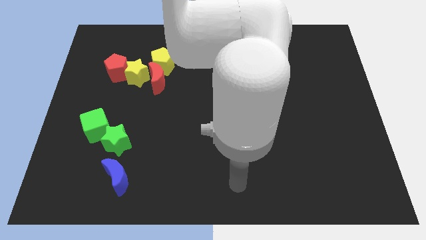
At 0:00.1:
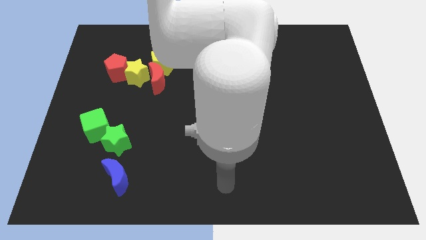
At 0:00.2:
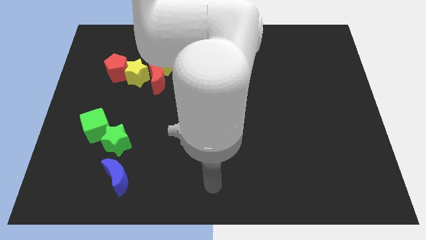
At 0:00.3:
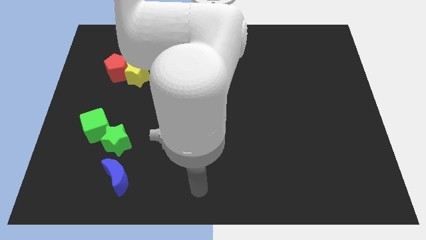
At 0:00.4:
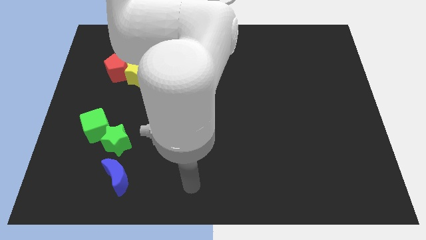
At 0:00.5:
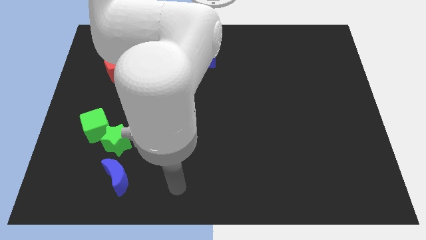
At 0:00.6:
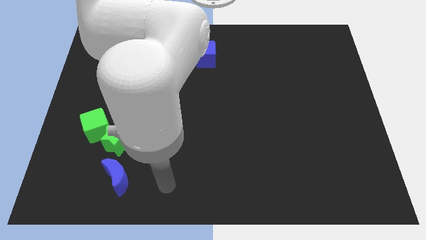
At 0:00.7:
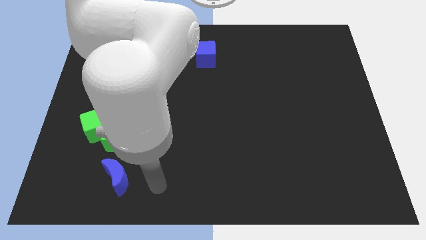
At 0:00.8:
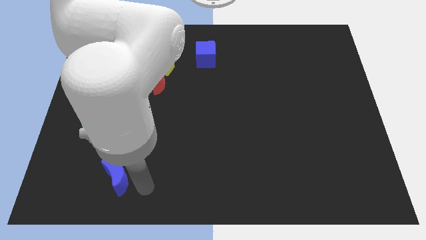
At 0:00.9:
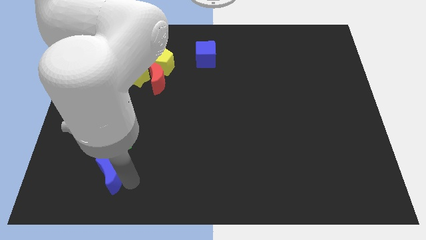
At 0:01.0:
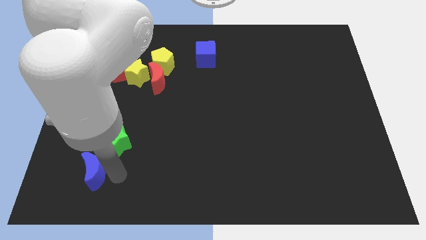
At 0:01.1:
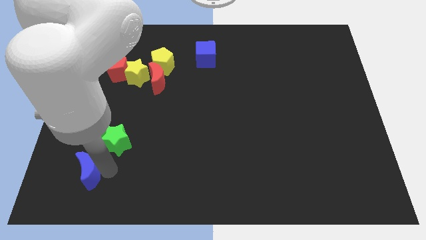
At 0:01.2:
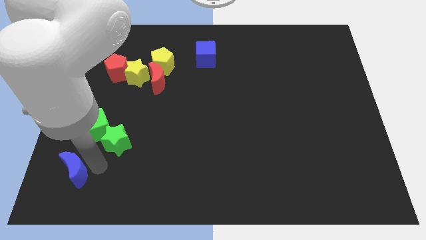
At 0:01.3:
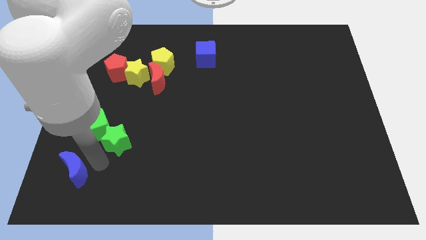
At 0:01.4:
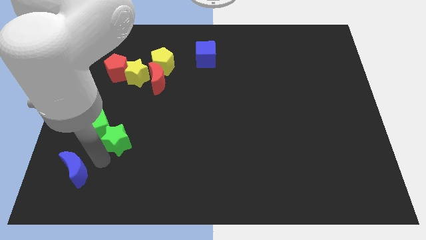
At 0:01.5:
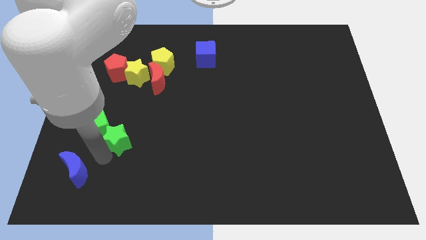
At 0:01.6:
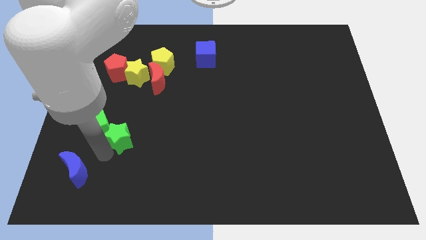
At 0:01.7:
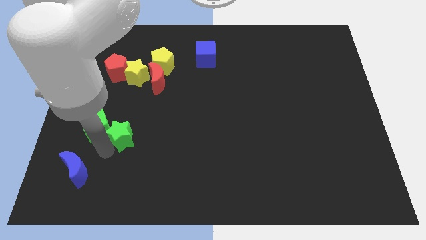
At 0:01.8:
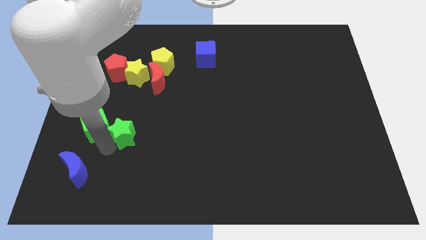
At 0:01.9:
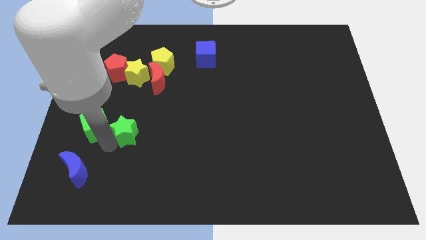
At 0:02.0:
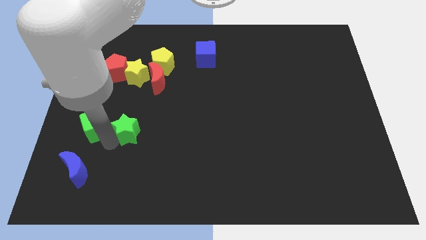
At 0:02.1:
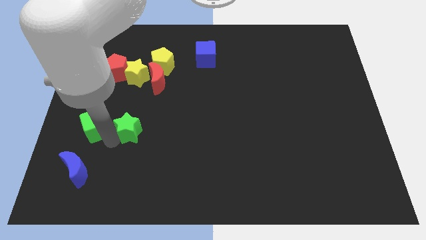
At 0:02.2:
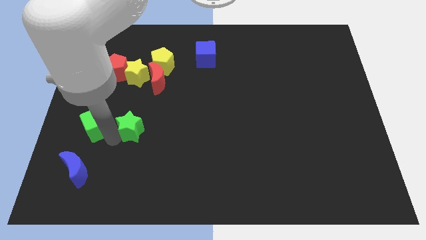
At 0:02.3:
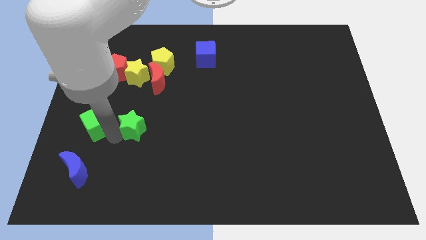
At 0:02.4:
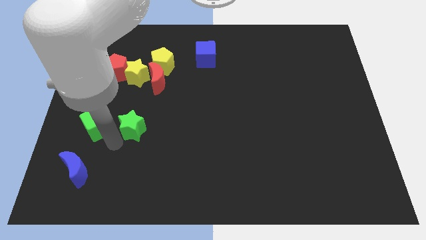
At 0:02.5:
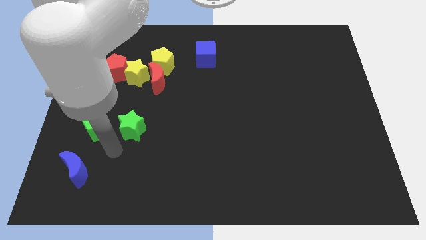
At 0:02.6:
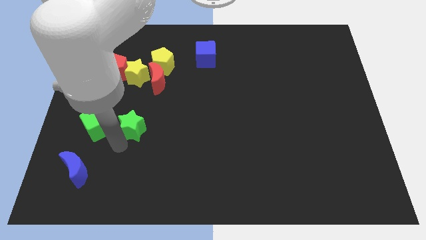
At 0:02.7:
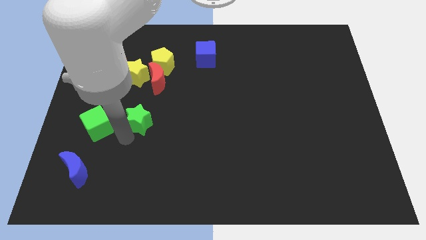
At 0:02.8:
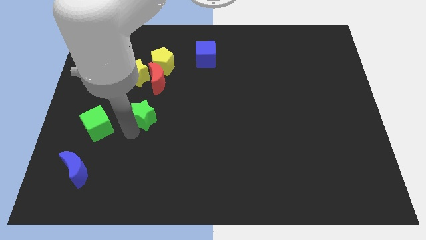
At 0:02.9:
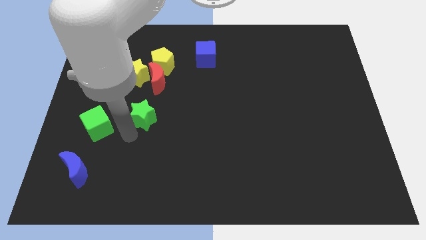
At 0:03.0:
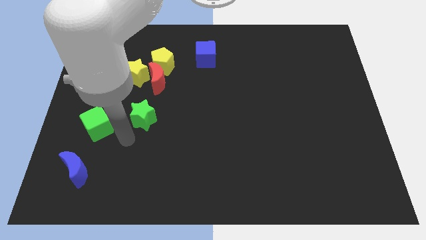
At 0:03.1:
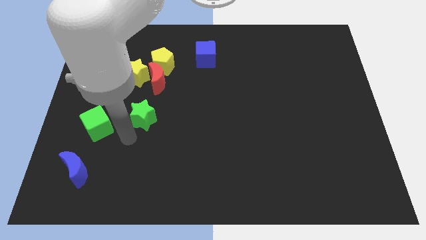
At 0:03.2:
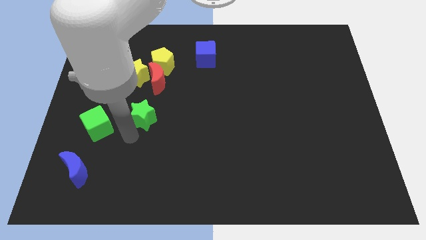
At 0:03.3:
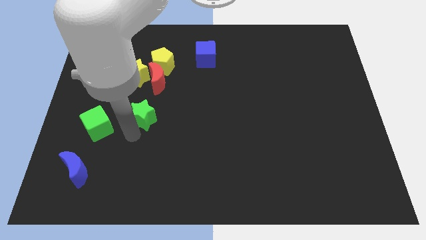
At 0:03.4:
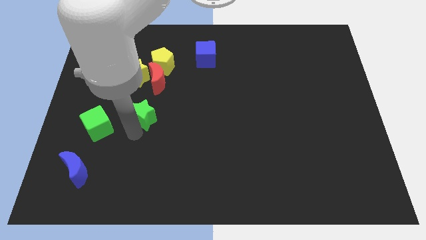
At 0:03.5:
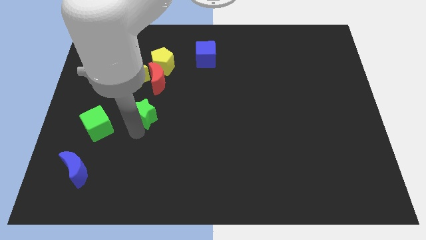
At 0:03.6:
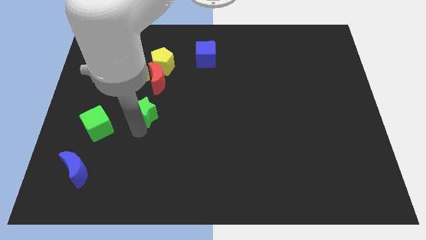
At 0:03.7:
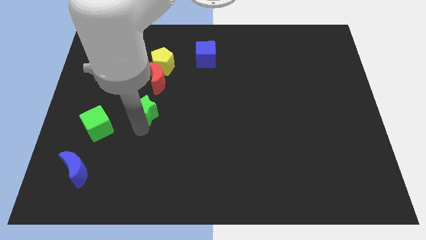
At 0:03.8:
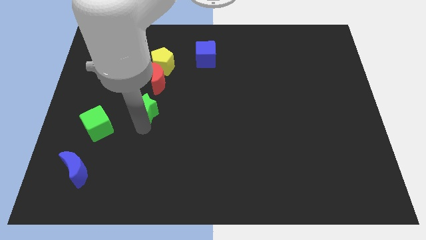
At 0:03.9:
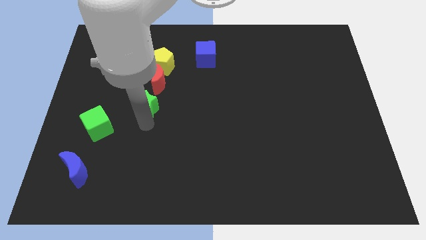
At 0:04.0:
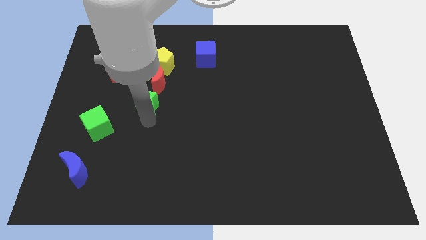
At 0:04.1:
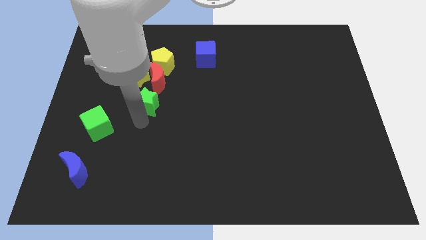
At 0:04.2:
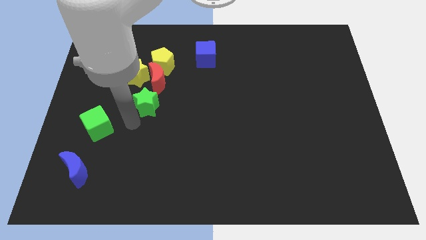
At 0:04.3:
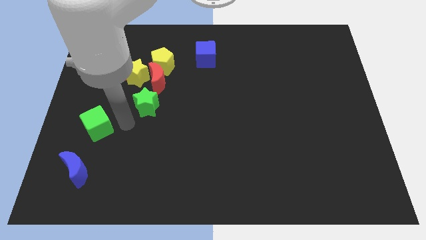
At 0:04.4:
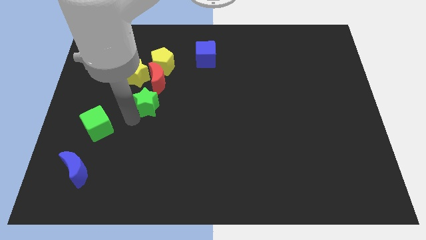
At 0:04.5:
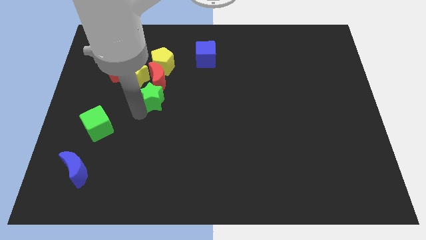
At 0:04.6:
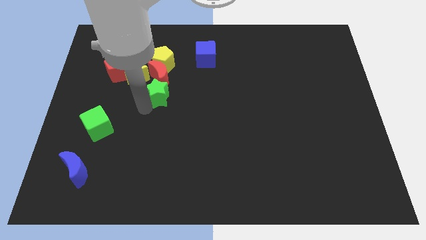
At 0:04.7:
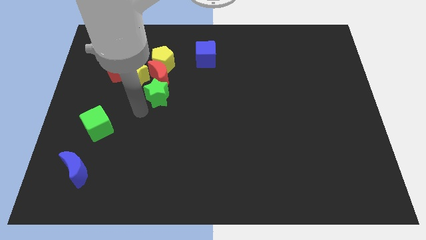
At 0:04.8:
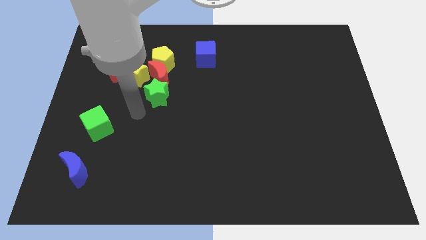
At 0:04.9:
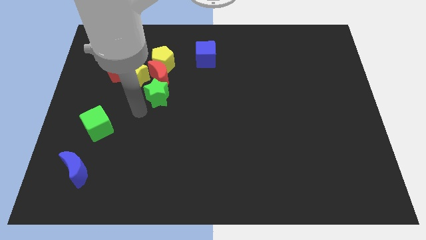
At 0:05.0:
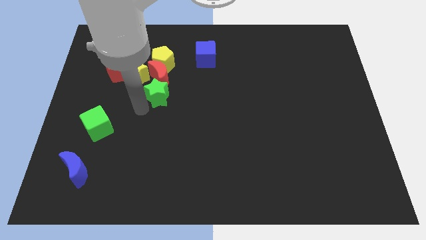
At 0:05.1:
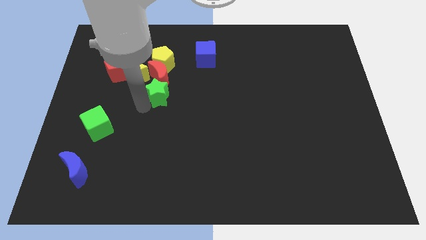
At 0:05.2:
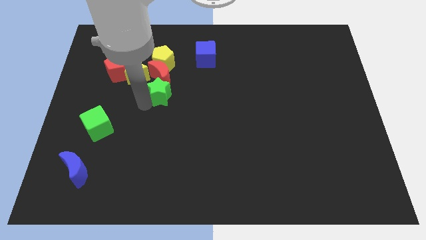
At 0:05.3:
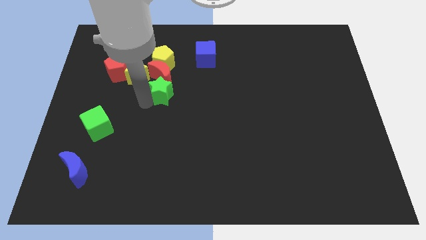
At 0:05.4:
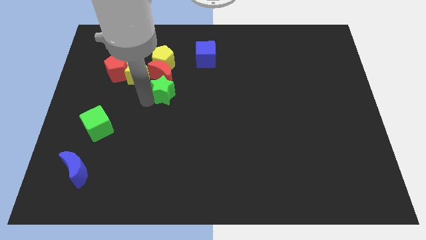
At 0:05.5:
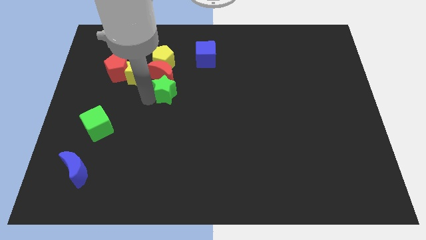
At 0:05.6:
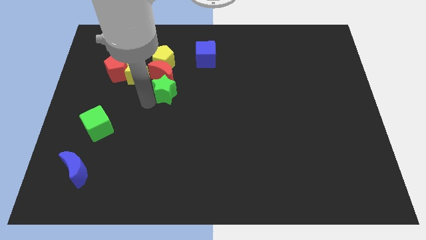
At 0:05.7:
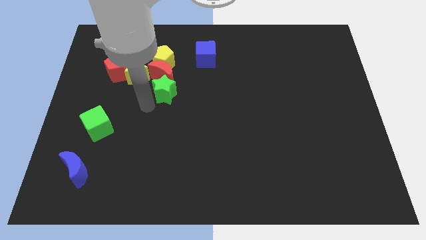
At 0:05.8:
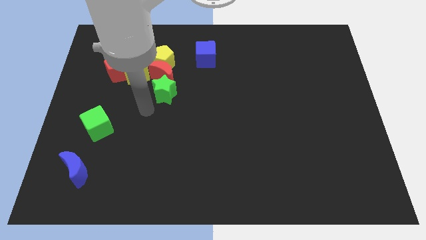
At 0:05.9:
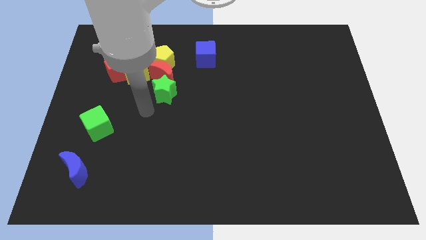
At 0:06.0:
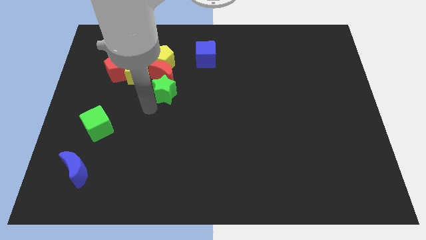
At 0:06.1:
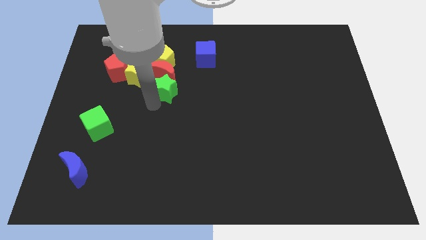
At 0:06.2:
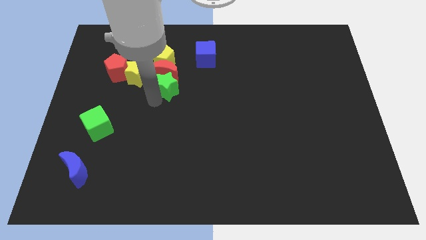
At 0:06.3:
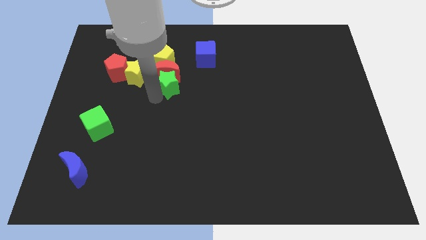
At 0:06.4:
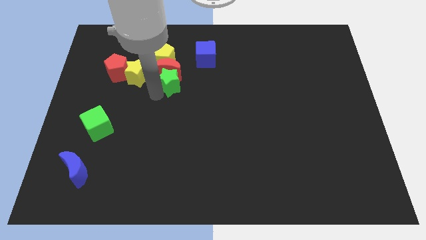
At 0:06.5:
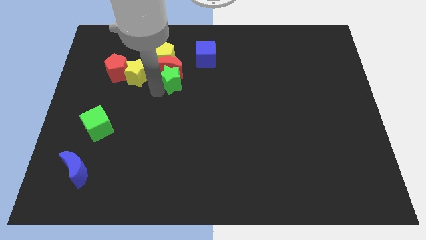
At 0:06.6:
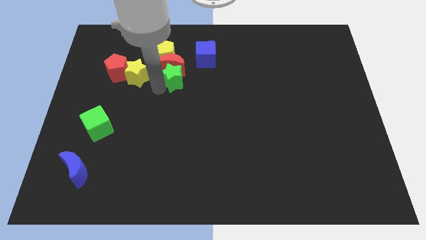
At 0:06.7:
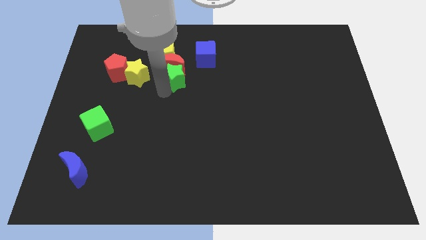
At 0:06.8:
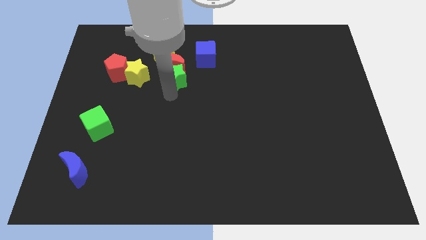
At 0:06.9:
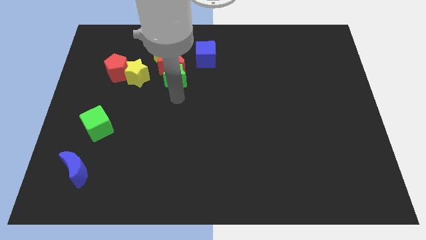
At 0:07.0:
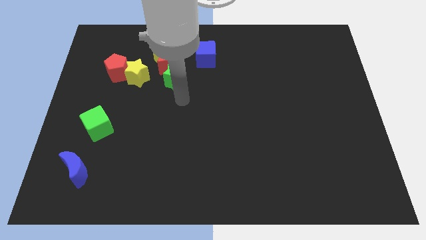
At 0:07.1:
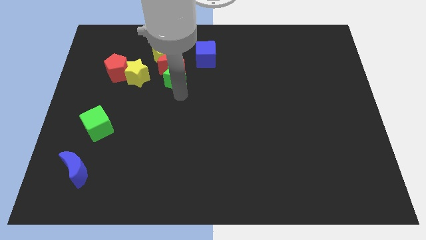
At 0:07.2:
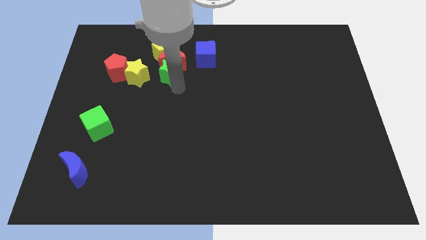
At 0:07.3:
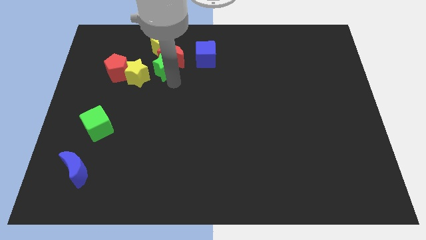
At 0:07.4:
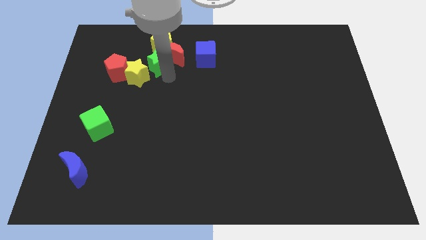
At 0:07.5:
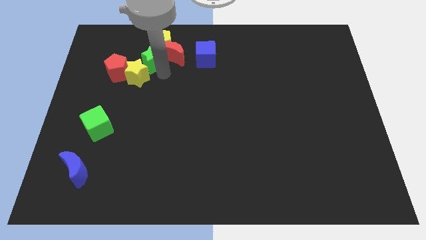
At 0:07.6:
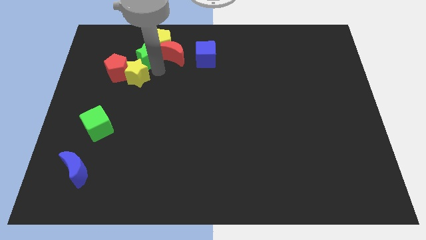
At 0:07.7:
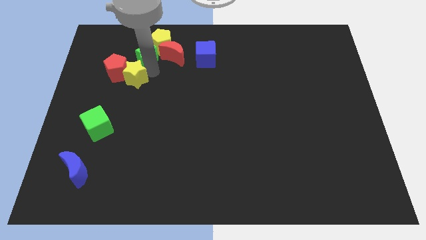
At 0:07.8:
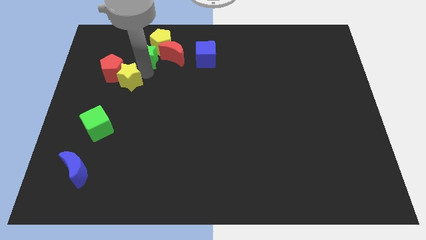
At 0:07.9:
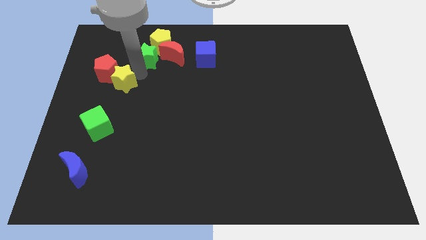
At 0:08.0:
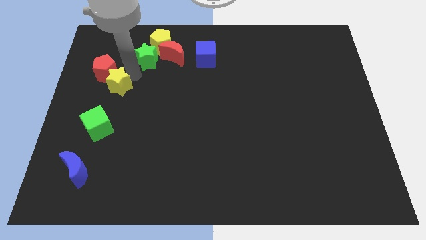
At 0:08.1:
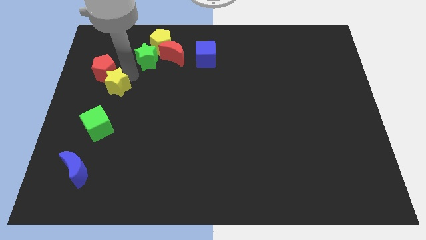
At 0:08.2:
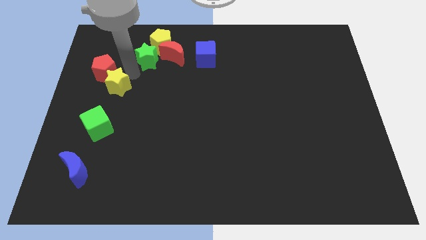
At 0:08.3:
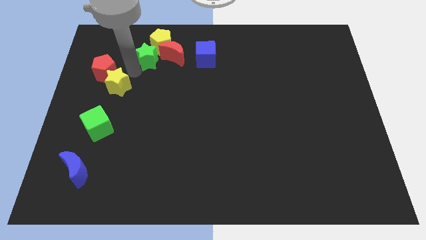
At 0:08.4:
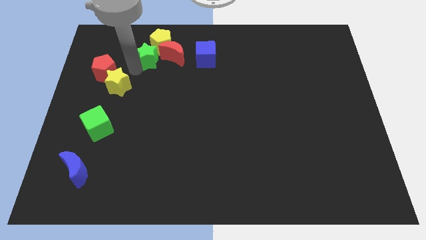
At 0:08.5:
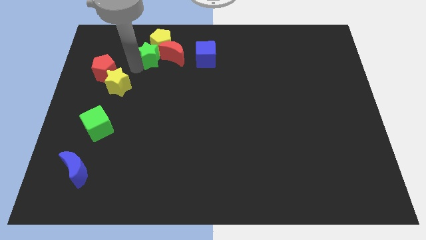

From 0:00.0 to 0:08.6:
put the green star close to the yellow pentagon
